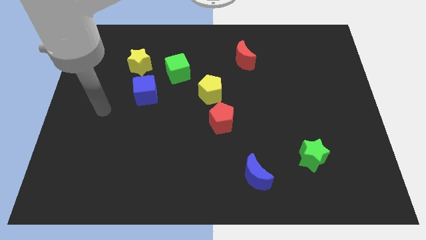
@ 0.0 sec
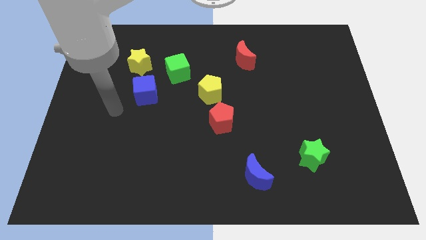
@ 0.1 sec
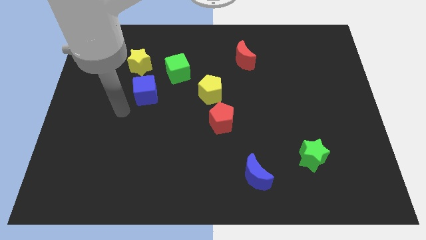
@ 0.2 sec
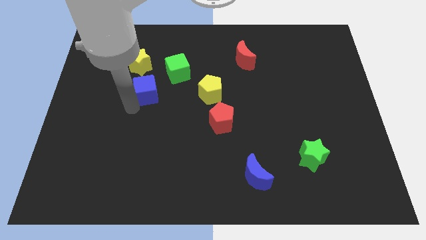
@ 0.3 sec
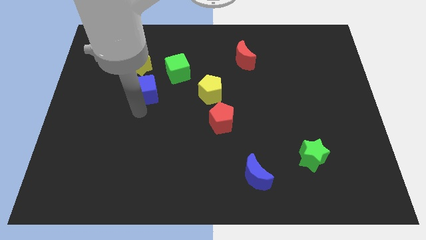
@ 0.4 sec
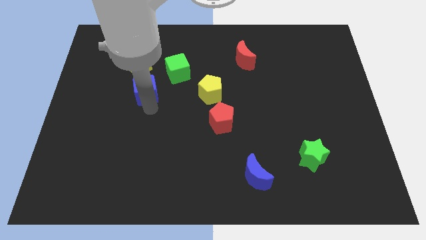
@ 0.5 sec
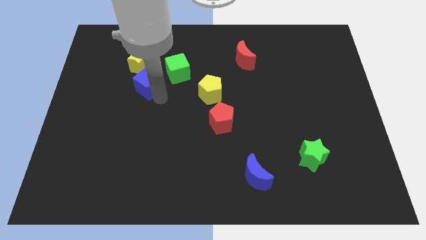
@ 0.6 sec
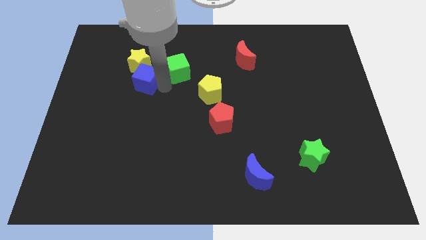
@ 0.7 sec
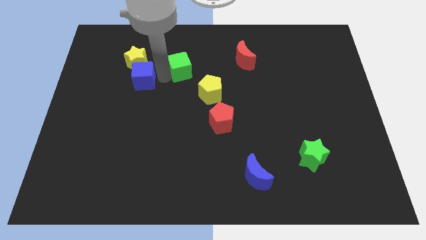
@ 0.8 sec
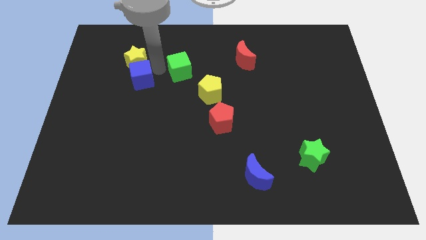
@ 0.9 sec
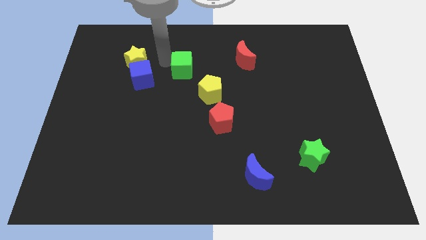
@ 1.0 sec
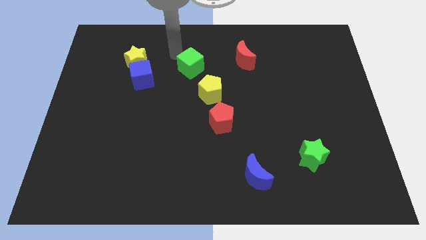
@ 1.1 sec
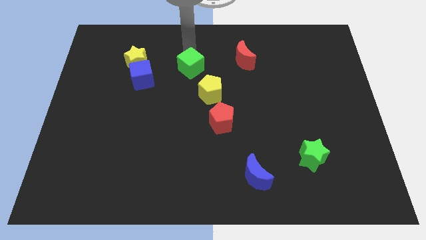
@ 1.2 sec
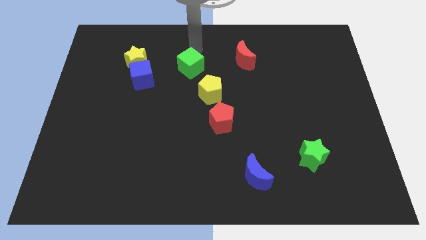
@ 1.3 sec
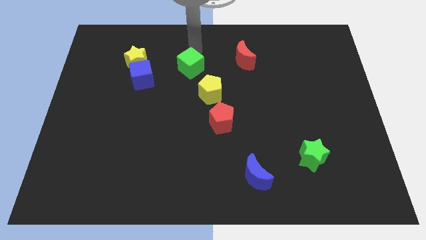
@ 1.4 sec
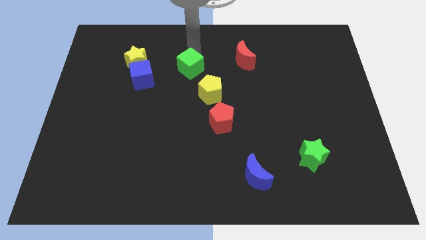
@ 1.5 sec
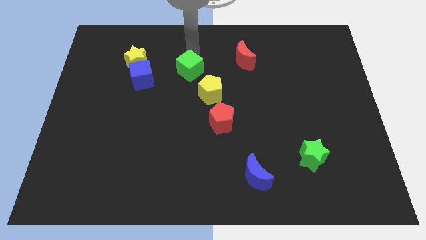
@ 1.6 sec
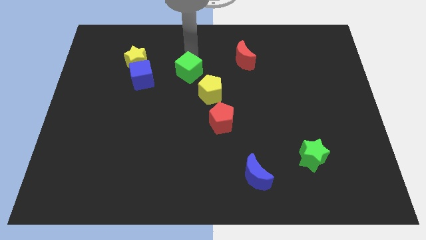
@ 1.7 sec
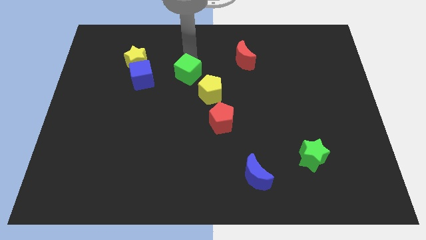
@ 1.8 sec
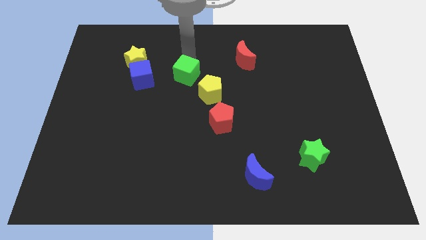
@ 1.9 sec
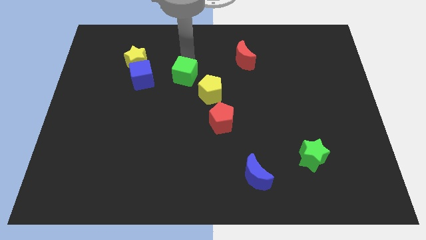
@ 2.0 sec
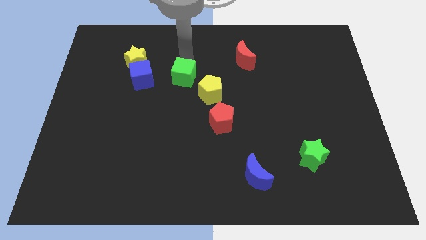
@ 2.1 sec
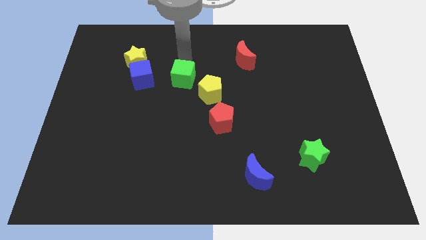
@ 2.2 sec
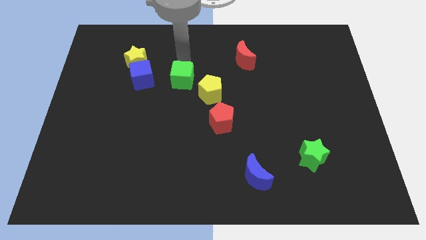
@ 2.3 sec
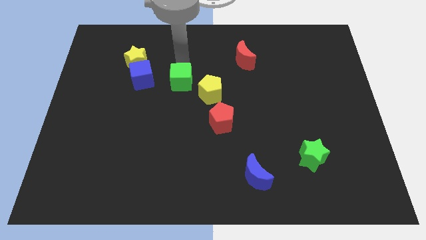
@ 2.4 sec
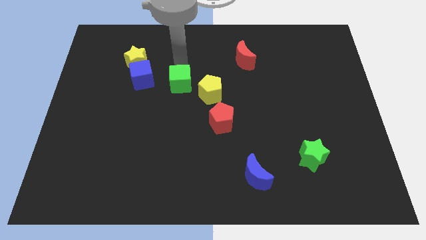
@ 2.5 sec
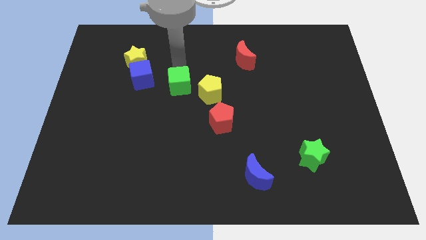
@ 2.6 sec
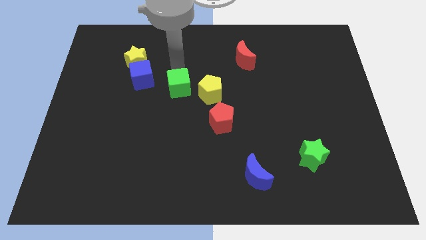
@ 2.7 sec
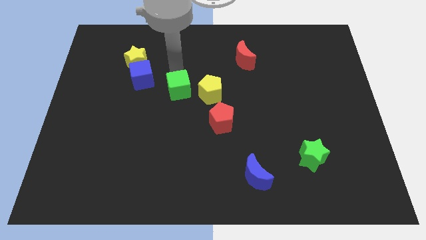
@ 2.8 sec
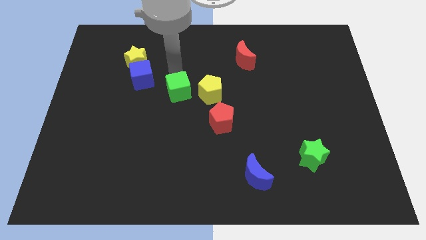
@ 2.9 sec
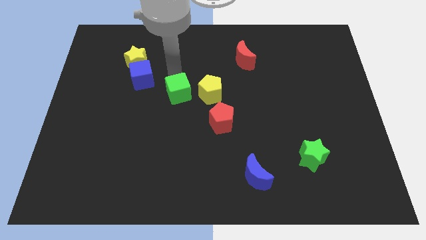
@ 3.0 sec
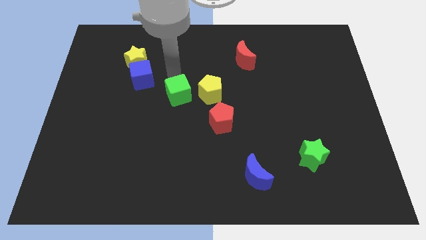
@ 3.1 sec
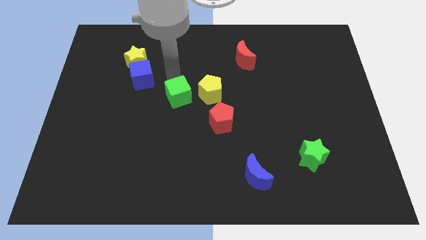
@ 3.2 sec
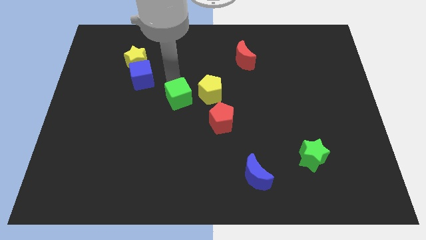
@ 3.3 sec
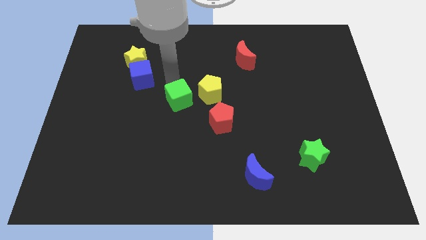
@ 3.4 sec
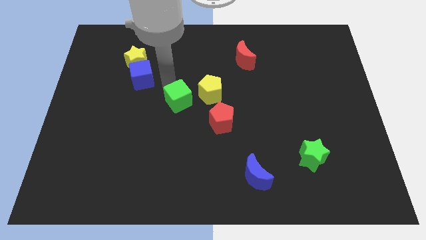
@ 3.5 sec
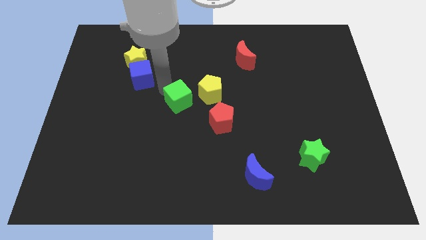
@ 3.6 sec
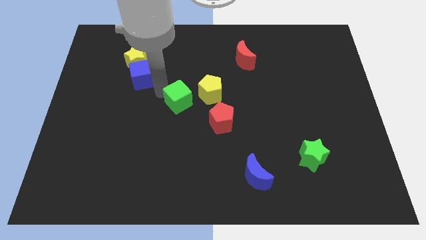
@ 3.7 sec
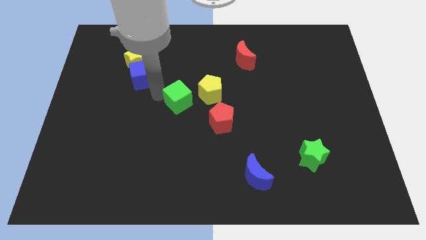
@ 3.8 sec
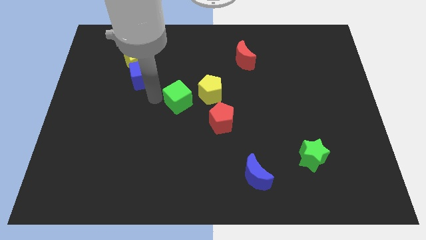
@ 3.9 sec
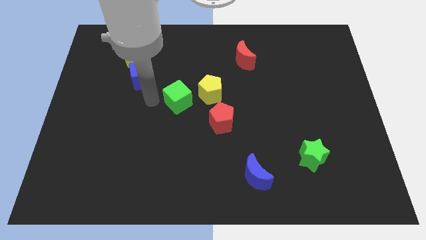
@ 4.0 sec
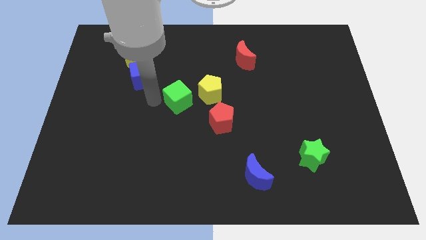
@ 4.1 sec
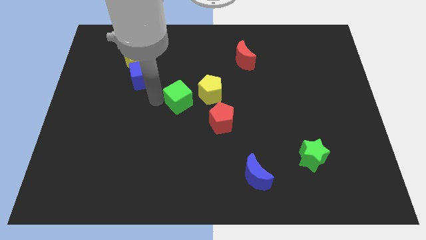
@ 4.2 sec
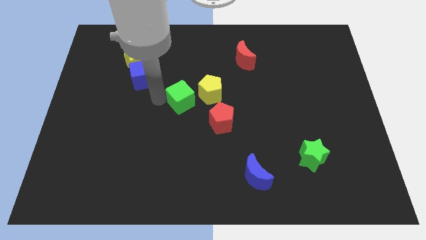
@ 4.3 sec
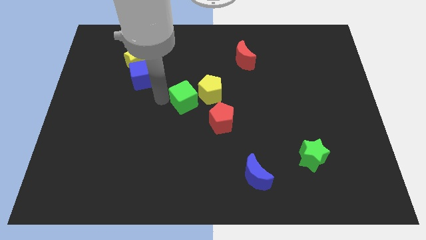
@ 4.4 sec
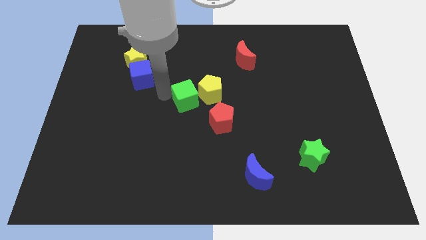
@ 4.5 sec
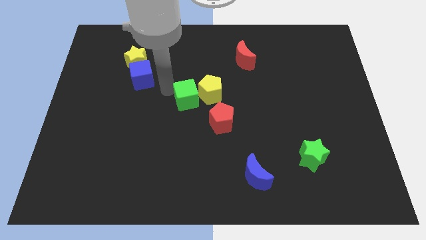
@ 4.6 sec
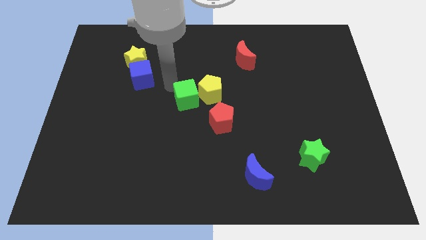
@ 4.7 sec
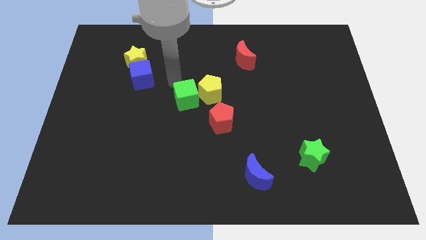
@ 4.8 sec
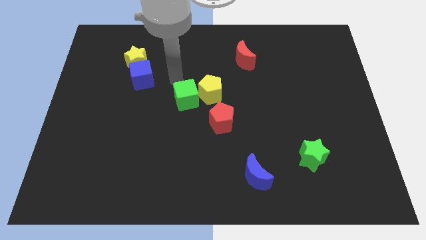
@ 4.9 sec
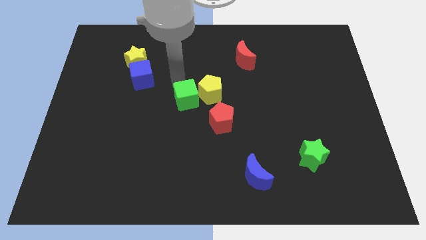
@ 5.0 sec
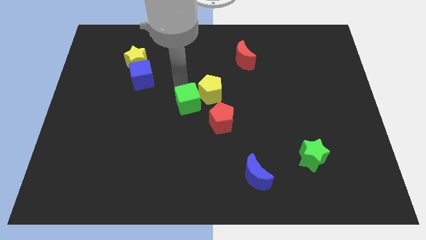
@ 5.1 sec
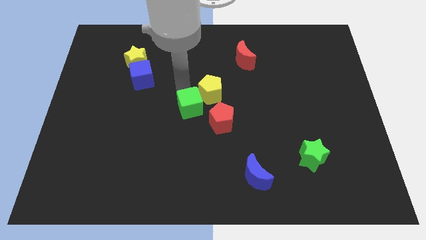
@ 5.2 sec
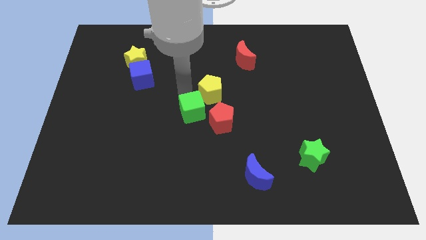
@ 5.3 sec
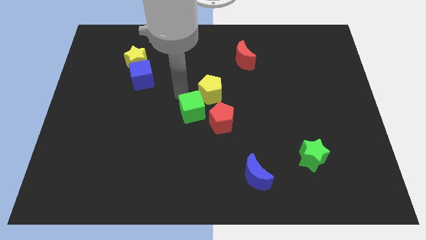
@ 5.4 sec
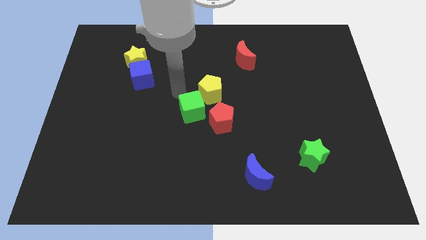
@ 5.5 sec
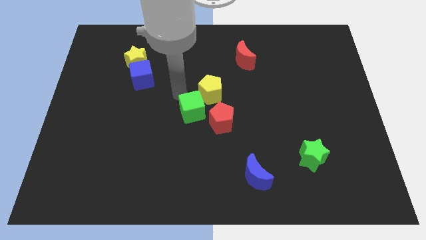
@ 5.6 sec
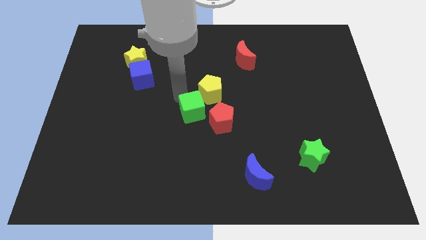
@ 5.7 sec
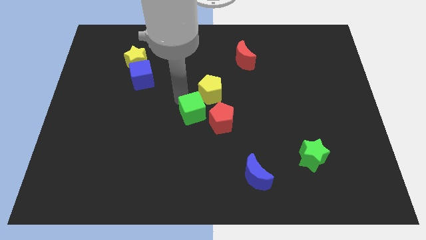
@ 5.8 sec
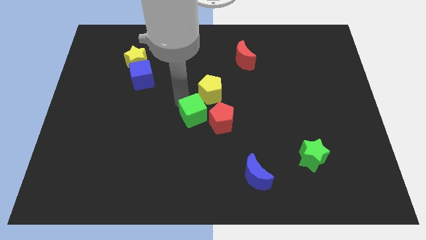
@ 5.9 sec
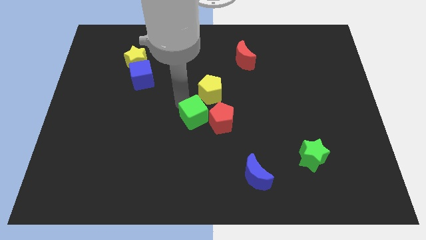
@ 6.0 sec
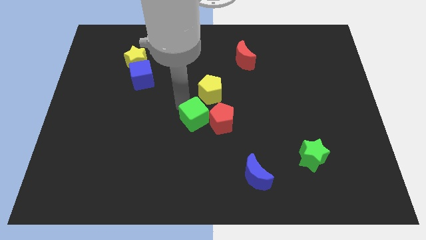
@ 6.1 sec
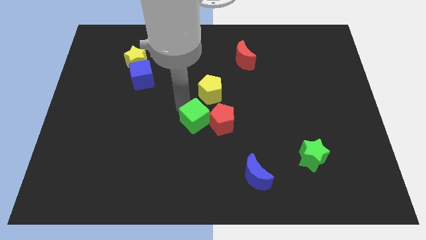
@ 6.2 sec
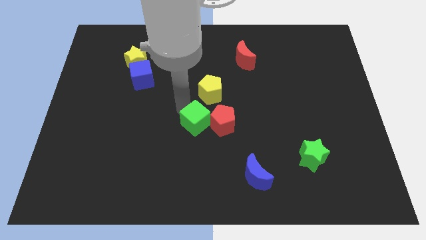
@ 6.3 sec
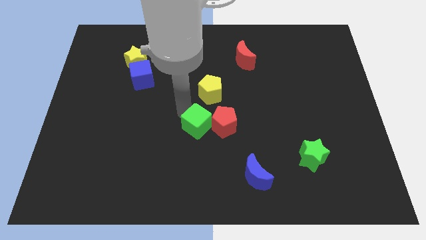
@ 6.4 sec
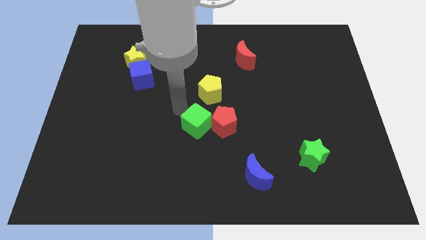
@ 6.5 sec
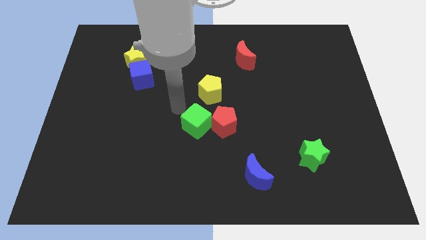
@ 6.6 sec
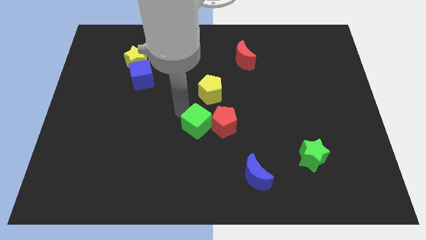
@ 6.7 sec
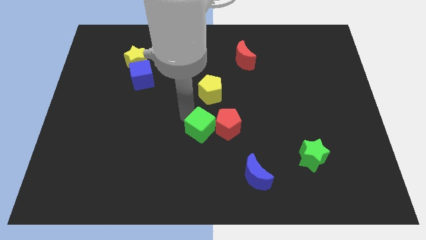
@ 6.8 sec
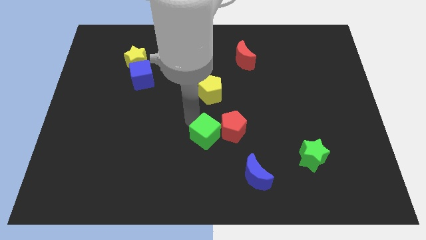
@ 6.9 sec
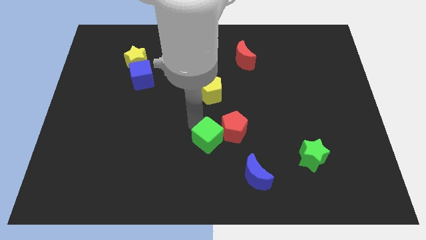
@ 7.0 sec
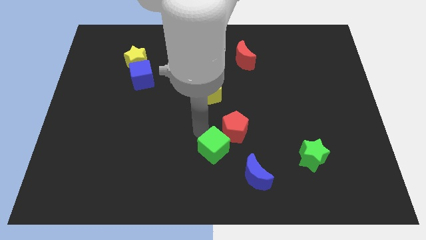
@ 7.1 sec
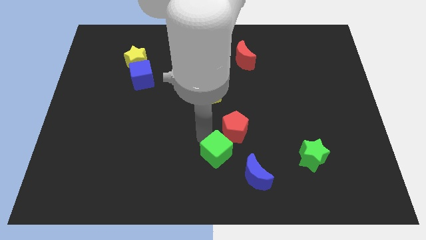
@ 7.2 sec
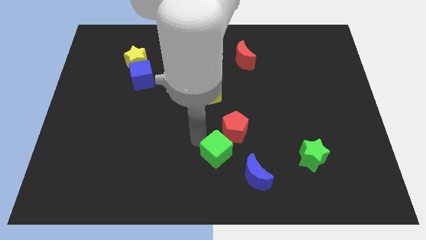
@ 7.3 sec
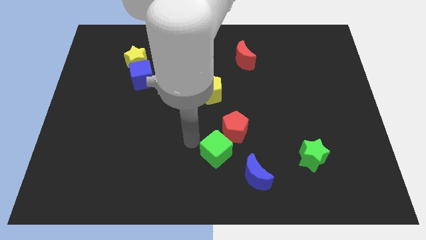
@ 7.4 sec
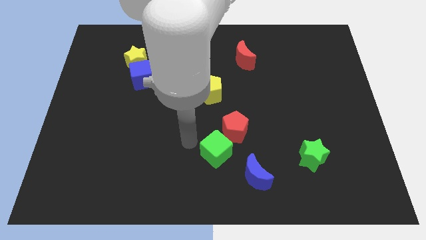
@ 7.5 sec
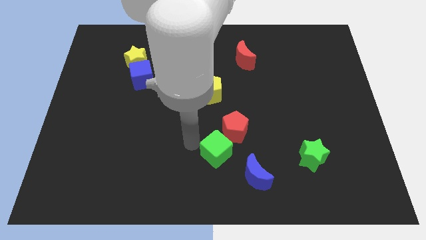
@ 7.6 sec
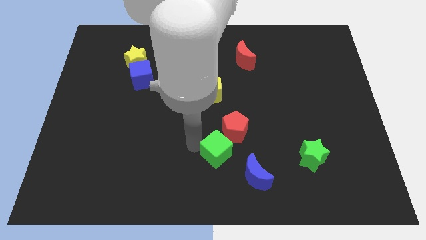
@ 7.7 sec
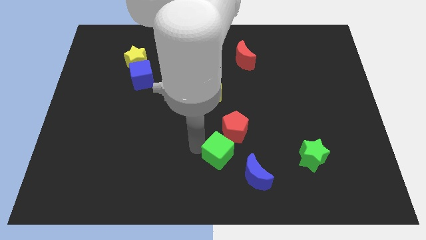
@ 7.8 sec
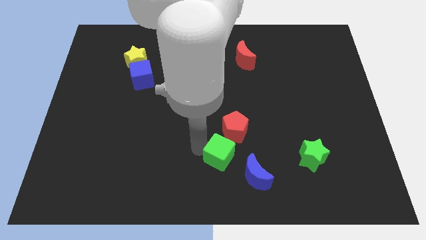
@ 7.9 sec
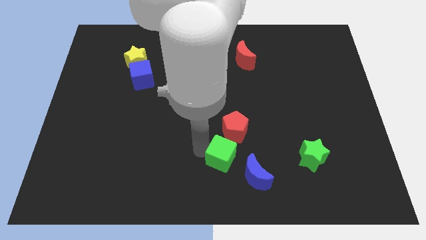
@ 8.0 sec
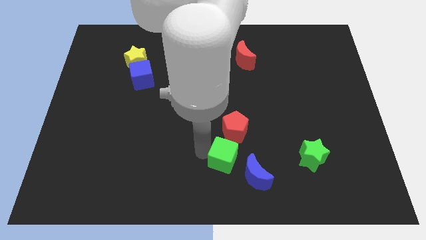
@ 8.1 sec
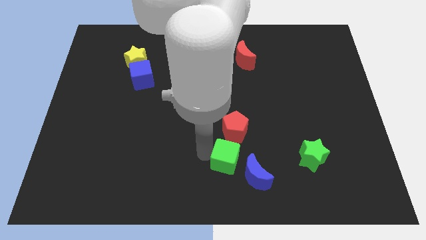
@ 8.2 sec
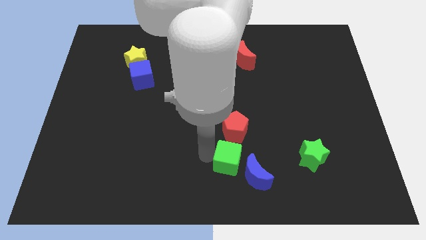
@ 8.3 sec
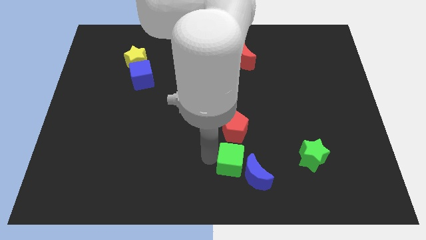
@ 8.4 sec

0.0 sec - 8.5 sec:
put the green cube close to the blue moon
